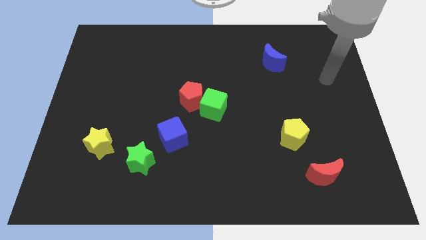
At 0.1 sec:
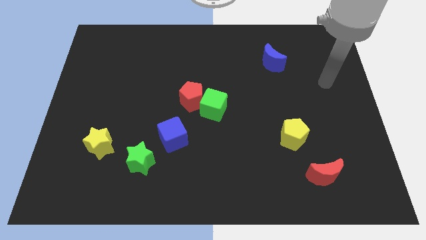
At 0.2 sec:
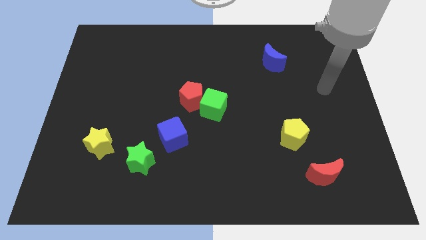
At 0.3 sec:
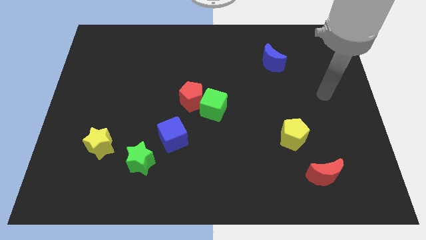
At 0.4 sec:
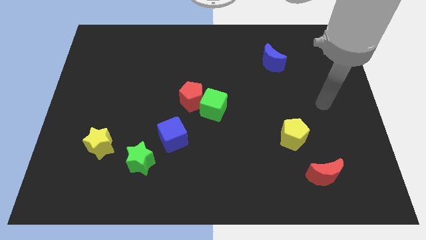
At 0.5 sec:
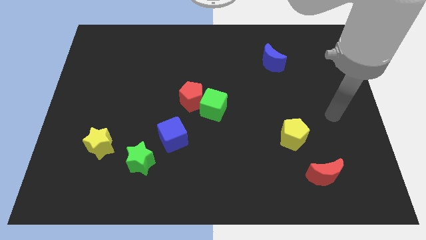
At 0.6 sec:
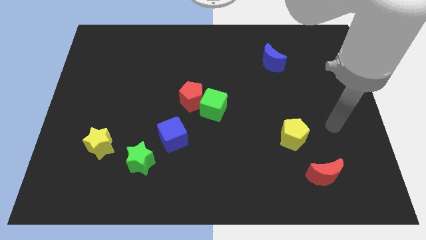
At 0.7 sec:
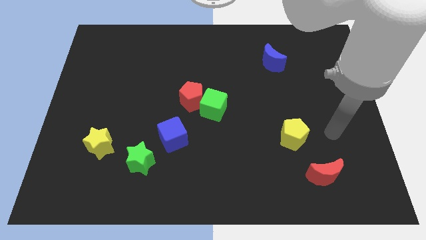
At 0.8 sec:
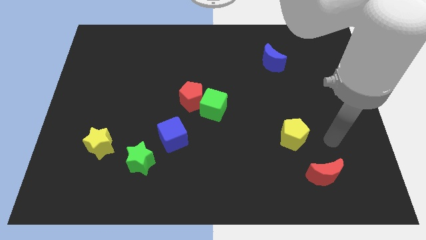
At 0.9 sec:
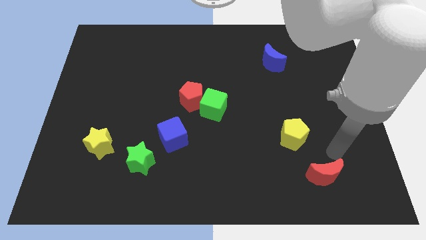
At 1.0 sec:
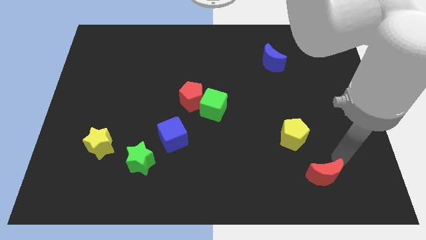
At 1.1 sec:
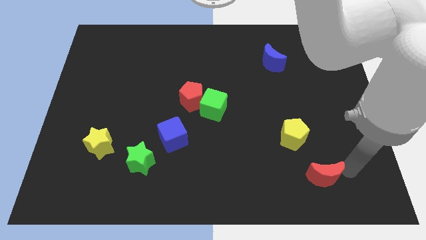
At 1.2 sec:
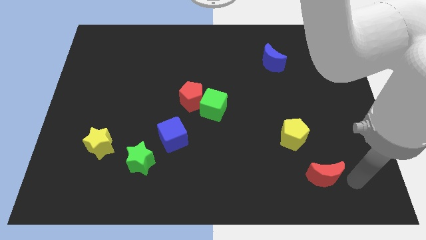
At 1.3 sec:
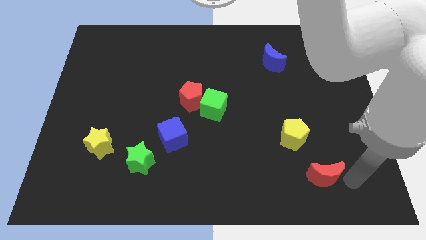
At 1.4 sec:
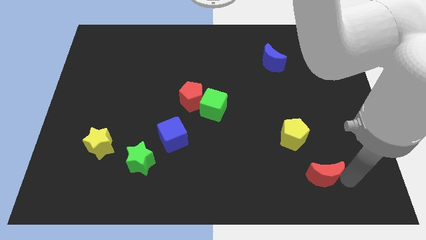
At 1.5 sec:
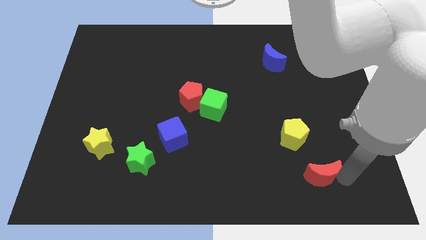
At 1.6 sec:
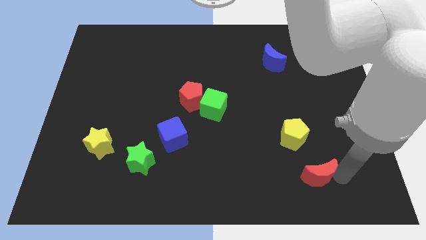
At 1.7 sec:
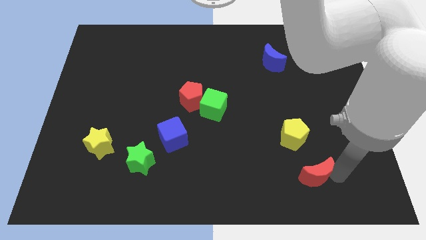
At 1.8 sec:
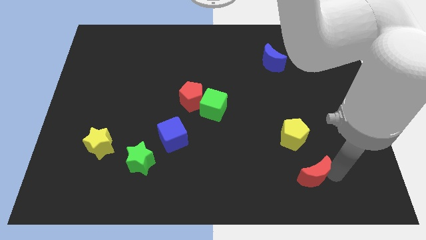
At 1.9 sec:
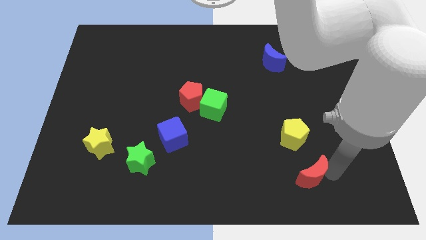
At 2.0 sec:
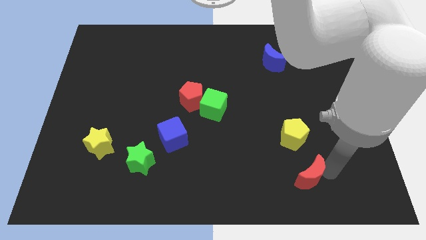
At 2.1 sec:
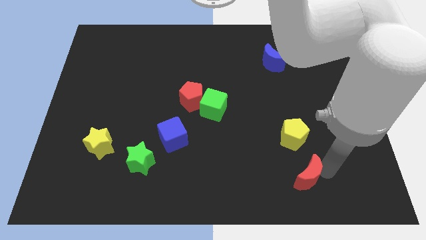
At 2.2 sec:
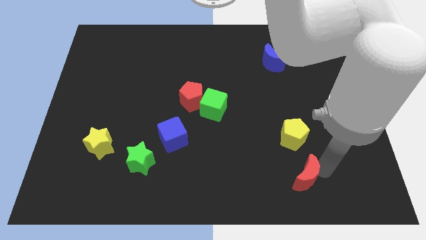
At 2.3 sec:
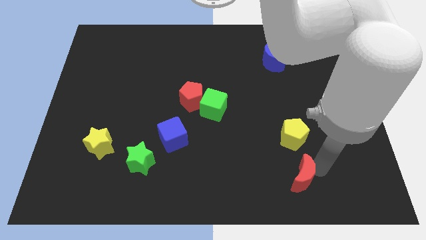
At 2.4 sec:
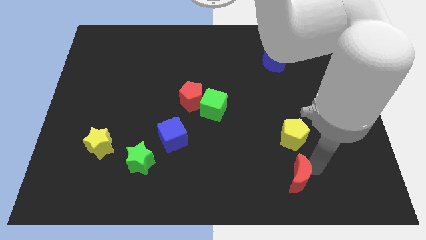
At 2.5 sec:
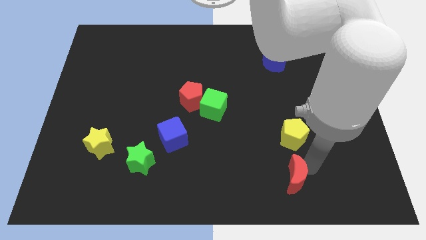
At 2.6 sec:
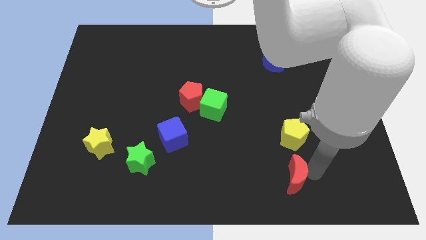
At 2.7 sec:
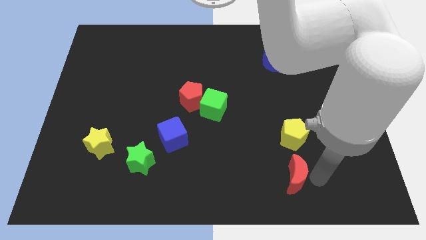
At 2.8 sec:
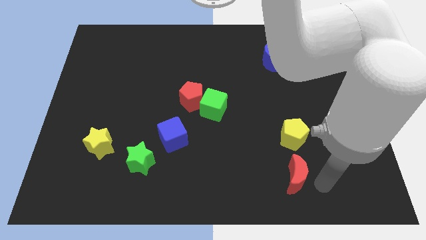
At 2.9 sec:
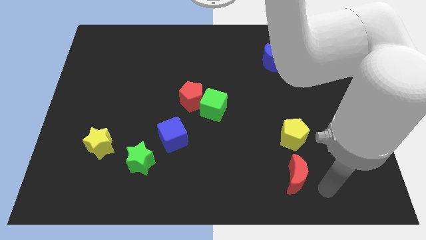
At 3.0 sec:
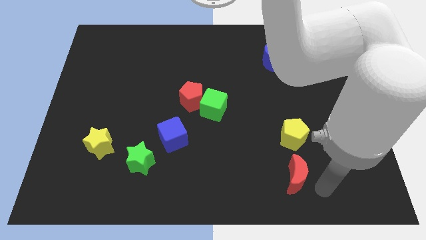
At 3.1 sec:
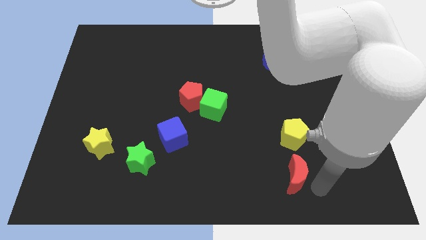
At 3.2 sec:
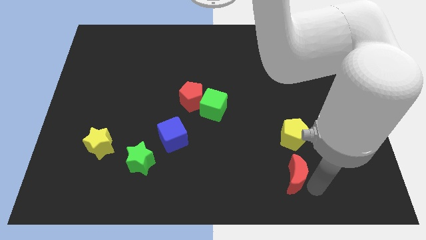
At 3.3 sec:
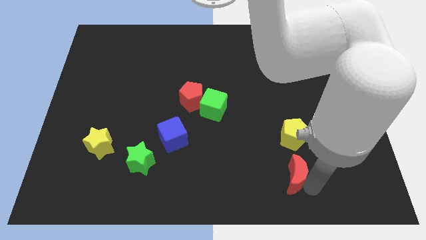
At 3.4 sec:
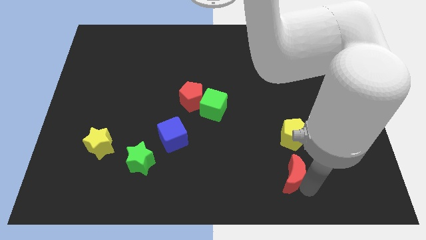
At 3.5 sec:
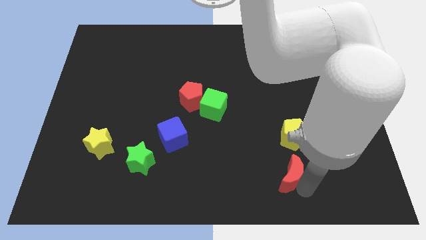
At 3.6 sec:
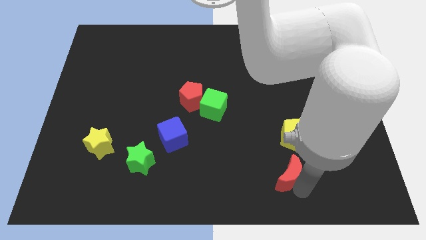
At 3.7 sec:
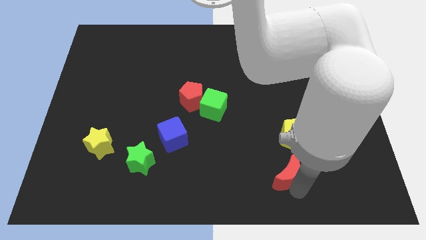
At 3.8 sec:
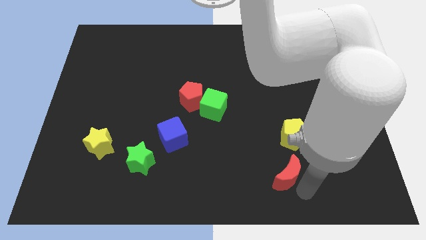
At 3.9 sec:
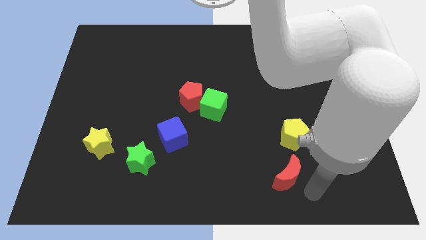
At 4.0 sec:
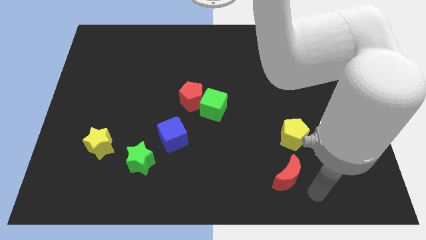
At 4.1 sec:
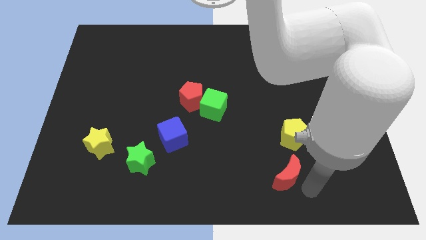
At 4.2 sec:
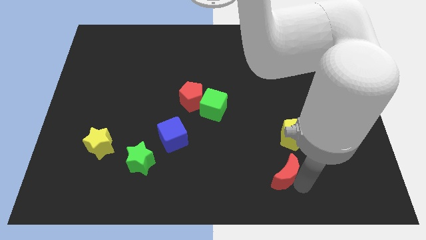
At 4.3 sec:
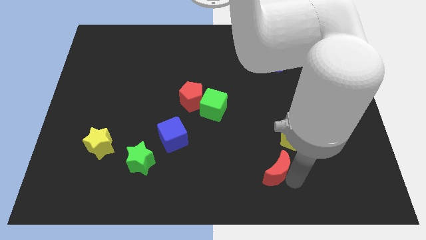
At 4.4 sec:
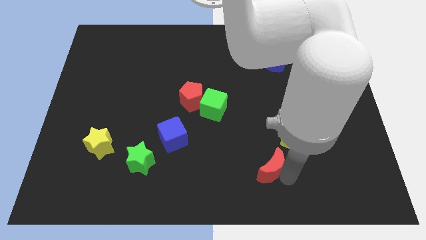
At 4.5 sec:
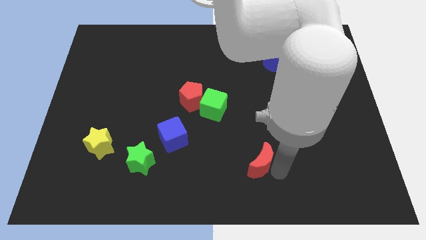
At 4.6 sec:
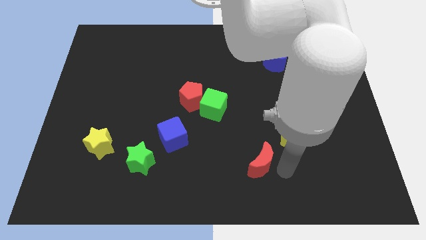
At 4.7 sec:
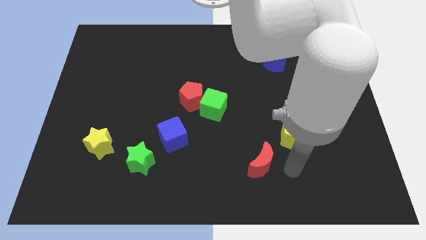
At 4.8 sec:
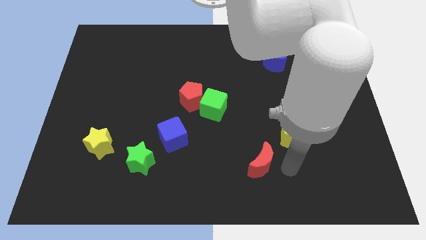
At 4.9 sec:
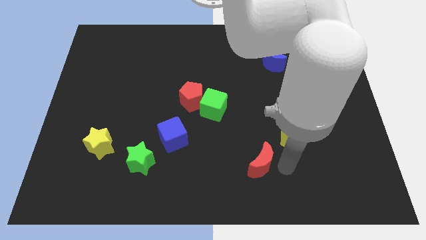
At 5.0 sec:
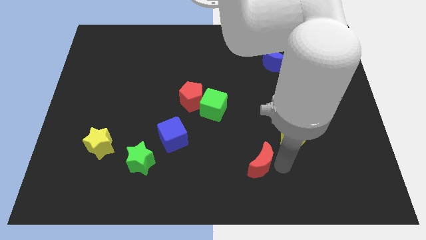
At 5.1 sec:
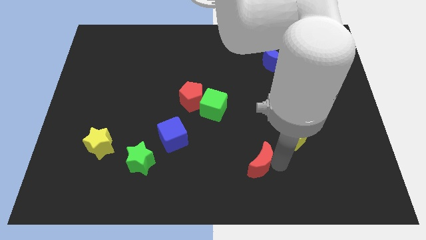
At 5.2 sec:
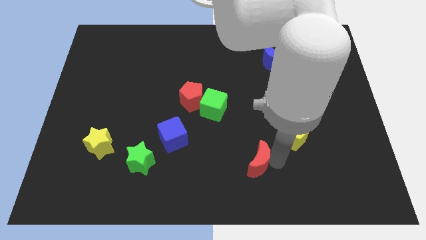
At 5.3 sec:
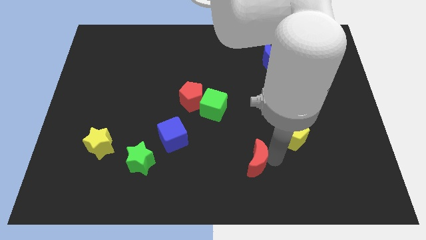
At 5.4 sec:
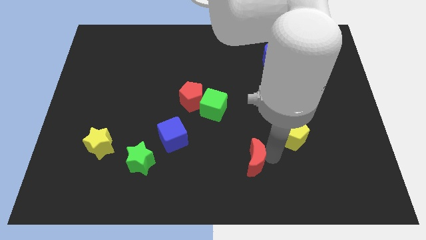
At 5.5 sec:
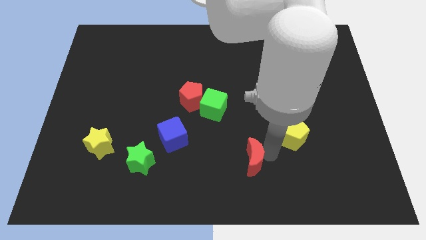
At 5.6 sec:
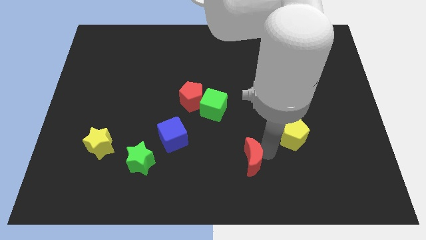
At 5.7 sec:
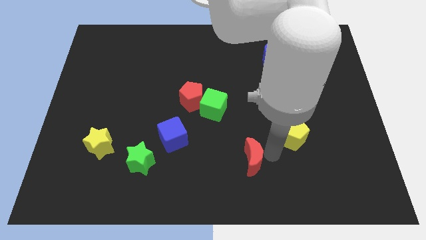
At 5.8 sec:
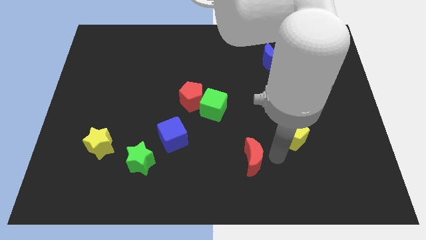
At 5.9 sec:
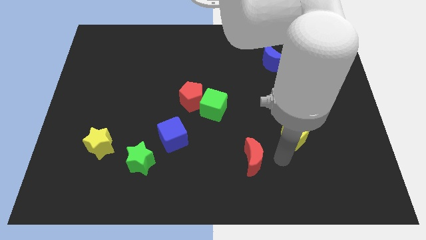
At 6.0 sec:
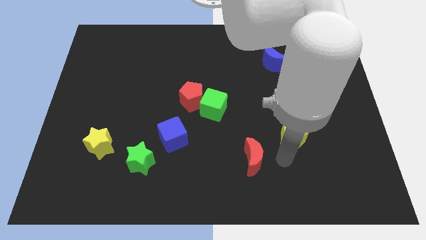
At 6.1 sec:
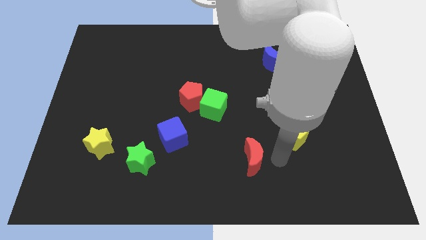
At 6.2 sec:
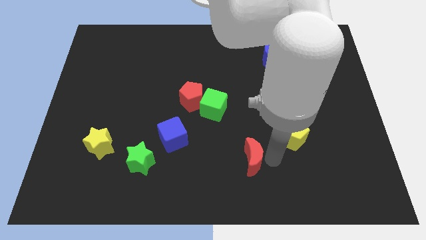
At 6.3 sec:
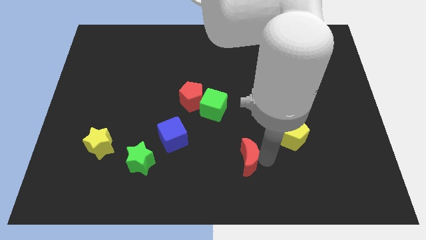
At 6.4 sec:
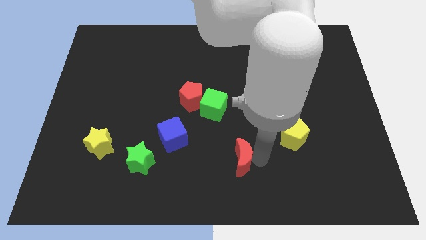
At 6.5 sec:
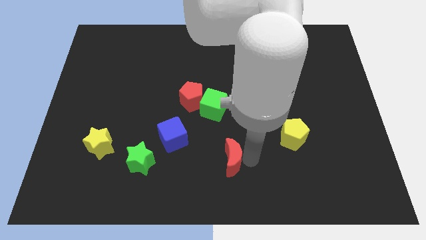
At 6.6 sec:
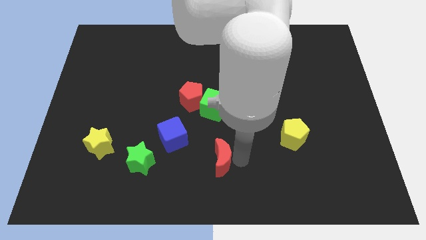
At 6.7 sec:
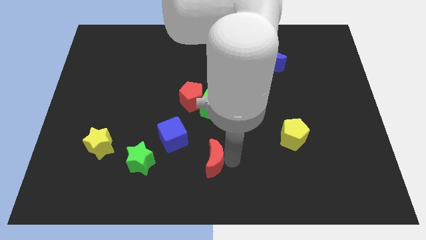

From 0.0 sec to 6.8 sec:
put the red moon diagonally down and to the right of the blue cube

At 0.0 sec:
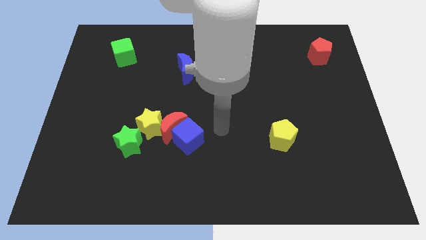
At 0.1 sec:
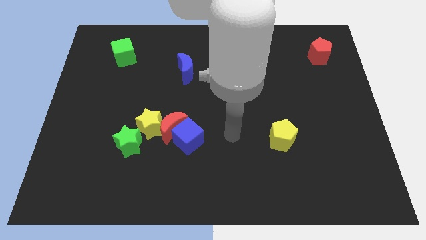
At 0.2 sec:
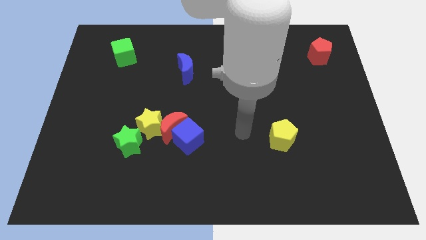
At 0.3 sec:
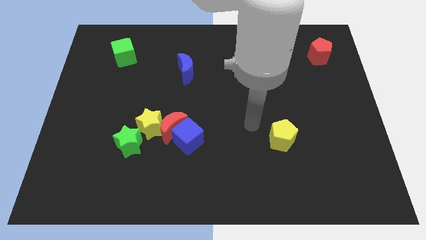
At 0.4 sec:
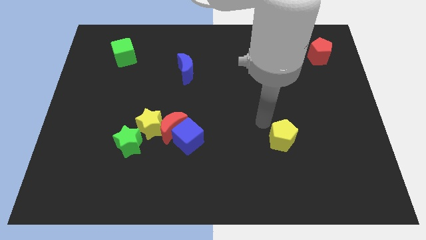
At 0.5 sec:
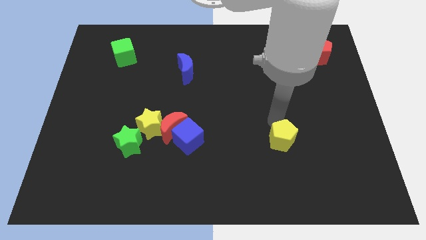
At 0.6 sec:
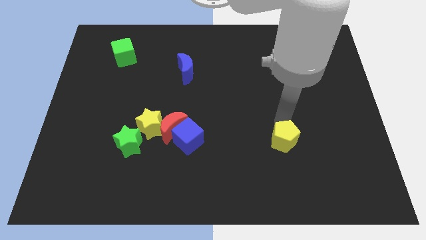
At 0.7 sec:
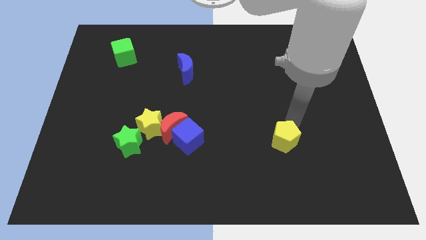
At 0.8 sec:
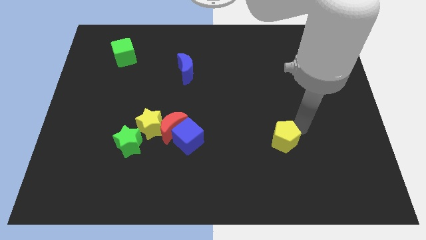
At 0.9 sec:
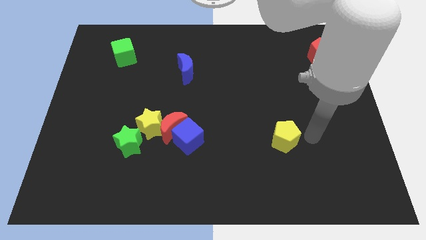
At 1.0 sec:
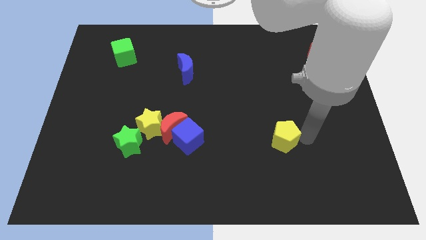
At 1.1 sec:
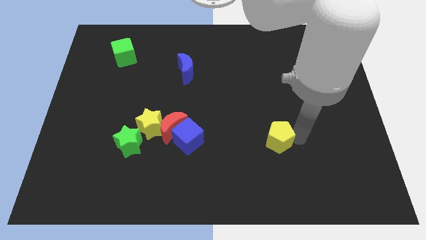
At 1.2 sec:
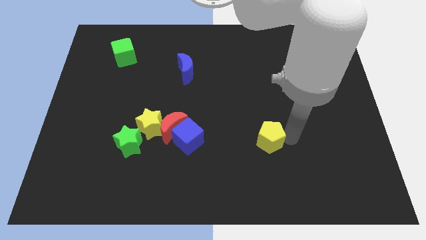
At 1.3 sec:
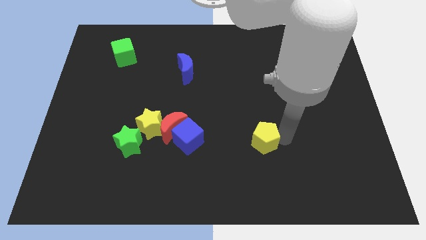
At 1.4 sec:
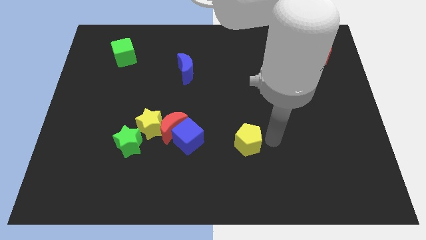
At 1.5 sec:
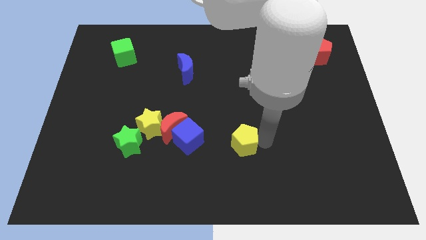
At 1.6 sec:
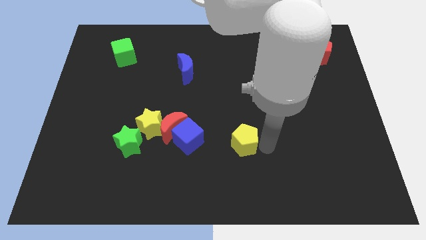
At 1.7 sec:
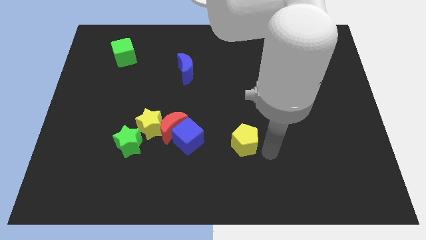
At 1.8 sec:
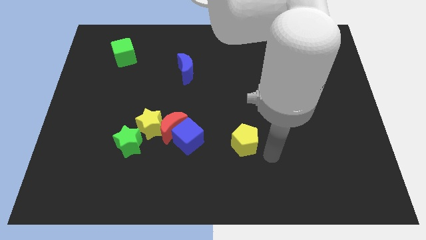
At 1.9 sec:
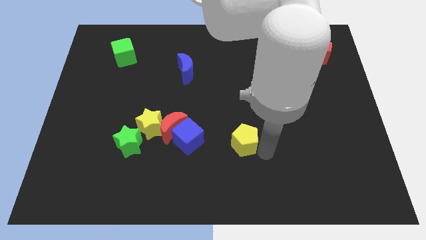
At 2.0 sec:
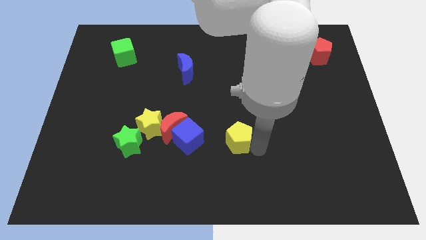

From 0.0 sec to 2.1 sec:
push the yellow pentagon just right of the red moon
